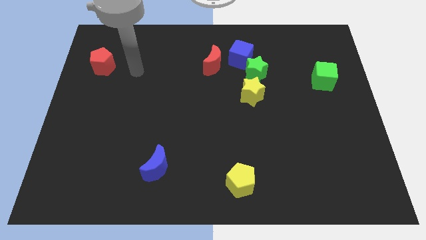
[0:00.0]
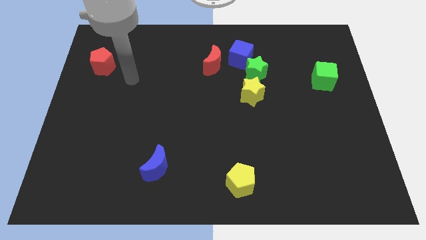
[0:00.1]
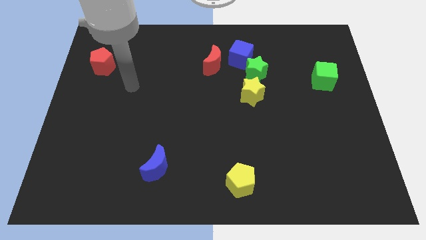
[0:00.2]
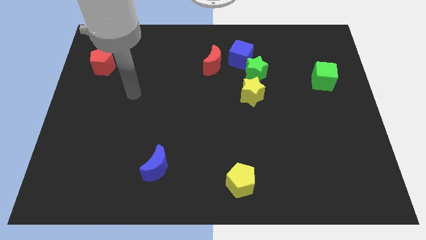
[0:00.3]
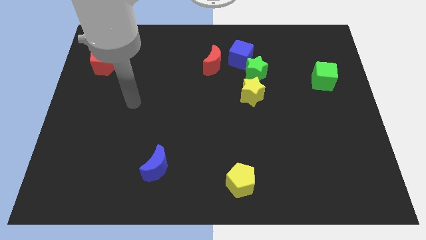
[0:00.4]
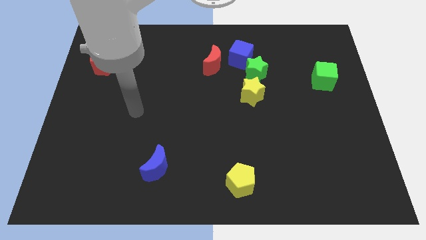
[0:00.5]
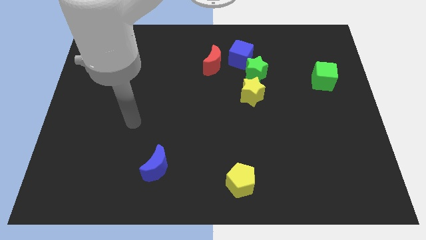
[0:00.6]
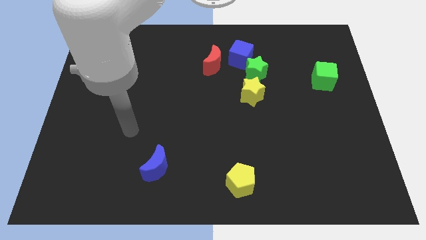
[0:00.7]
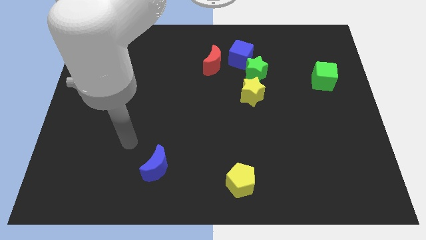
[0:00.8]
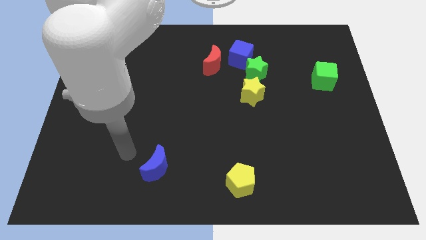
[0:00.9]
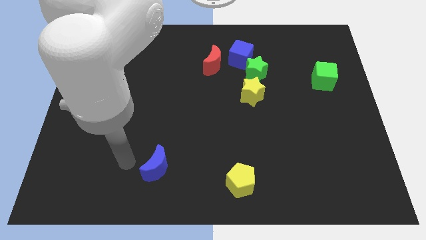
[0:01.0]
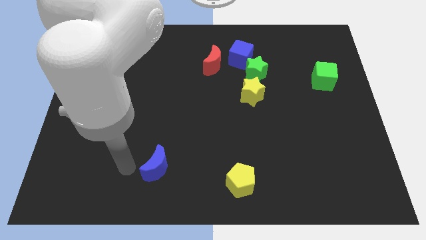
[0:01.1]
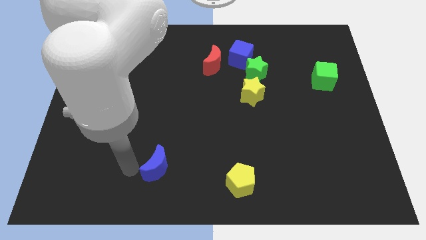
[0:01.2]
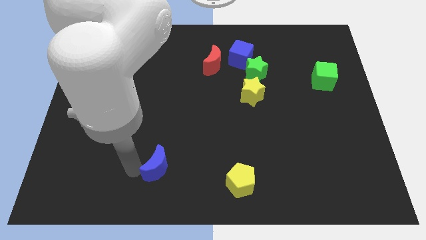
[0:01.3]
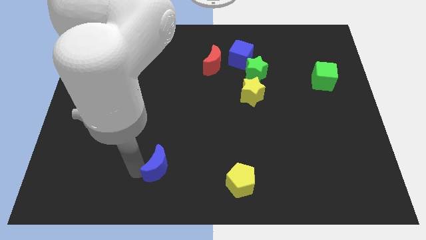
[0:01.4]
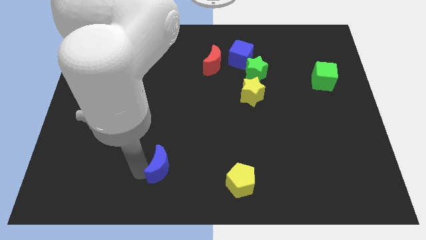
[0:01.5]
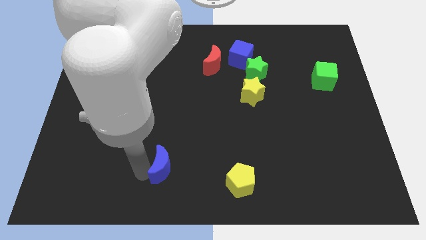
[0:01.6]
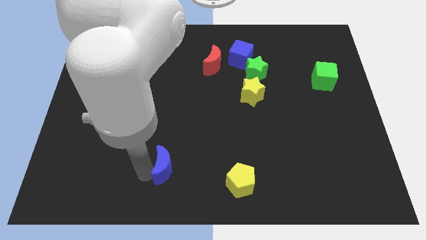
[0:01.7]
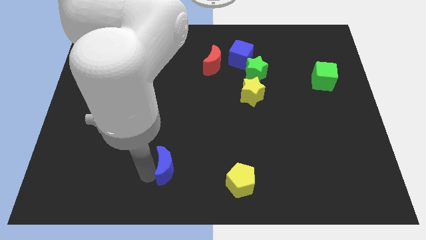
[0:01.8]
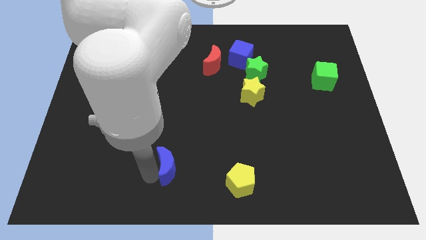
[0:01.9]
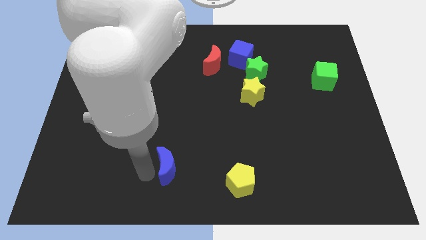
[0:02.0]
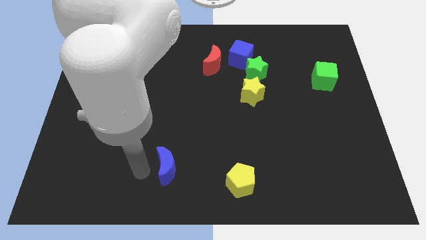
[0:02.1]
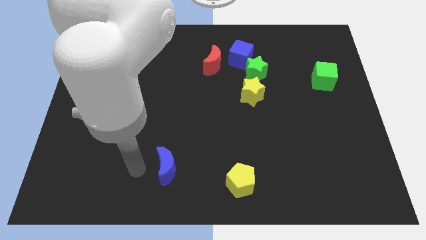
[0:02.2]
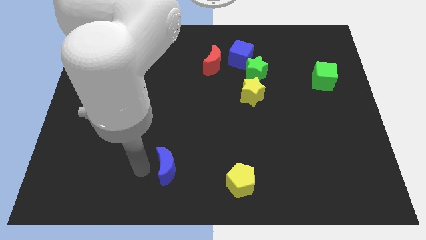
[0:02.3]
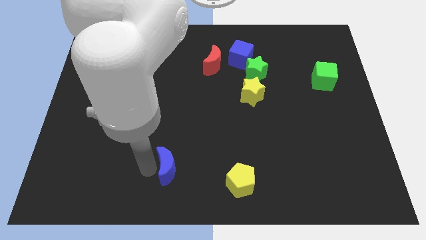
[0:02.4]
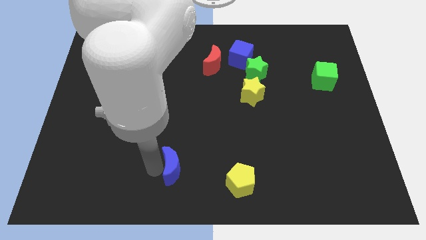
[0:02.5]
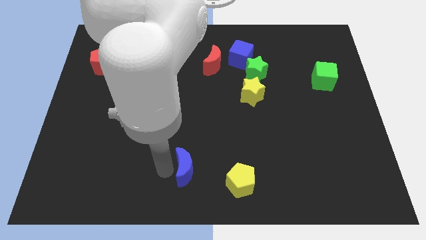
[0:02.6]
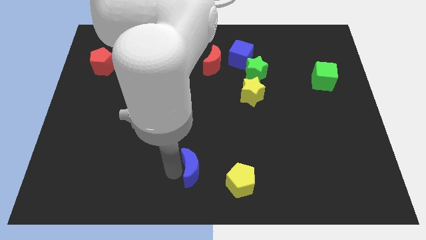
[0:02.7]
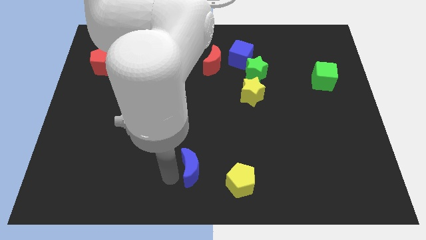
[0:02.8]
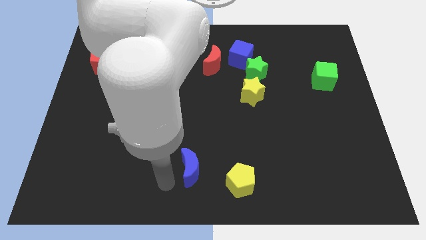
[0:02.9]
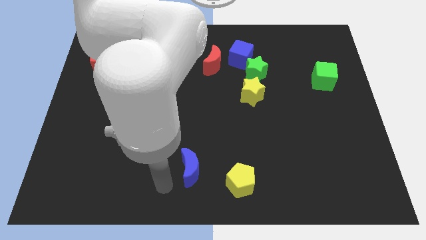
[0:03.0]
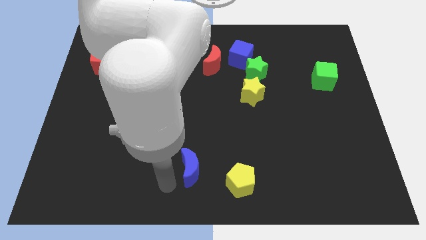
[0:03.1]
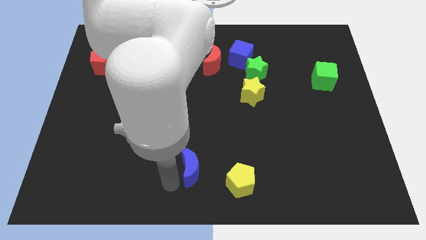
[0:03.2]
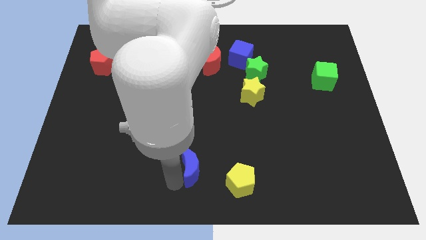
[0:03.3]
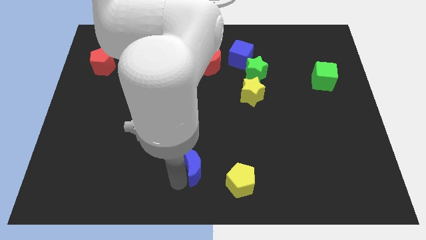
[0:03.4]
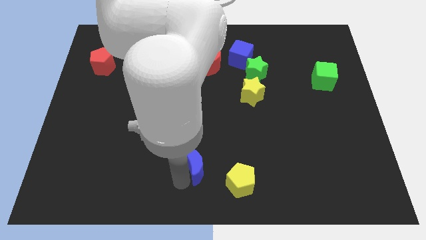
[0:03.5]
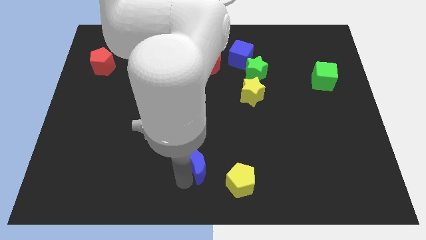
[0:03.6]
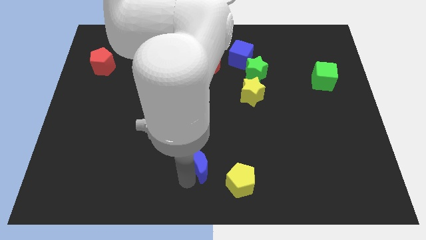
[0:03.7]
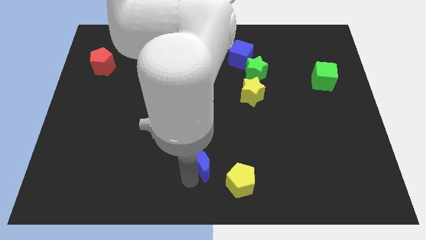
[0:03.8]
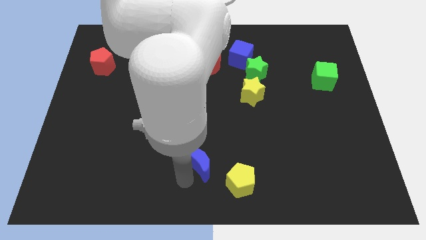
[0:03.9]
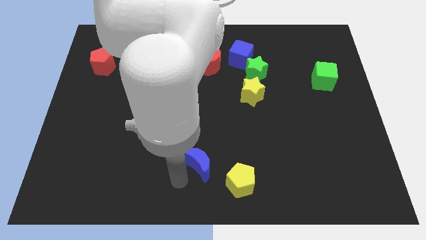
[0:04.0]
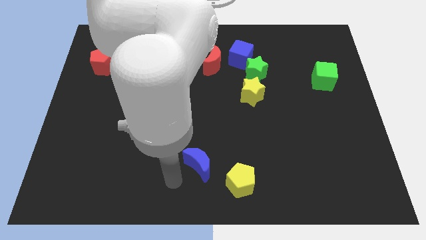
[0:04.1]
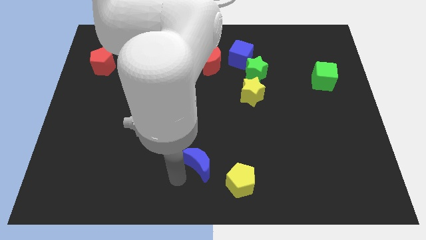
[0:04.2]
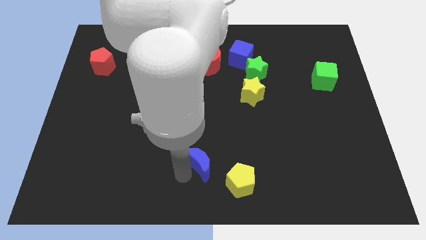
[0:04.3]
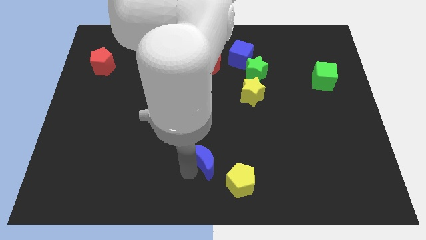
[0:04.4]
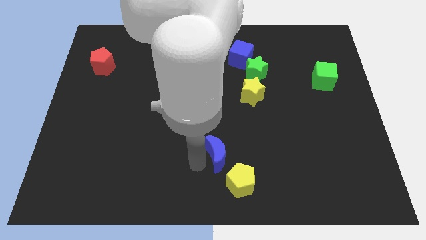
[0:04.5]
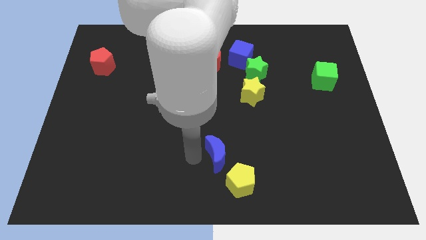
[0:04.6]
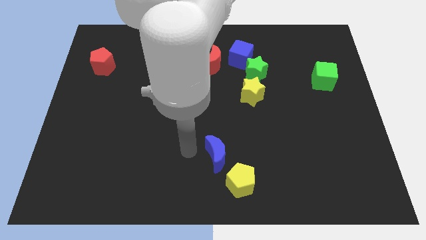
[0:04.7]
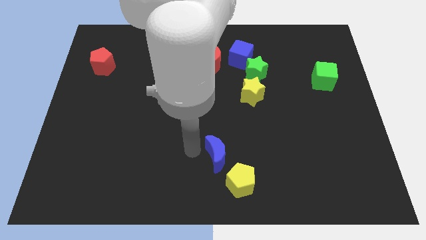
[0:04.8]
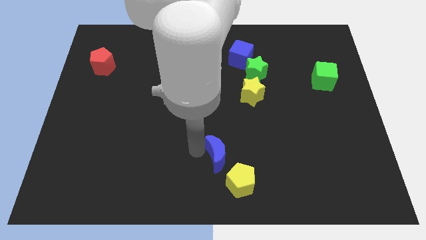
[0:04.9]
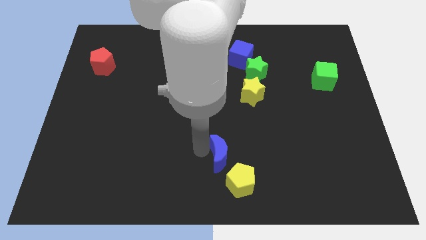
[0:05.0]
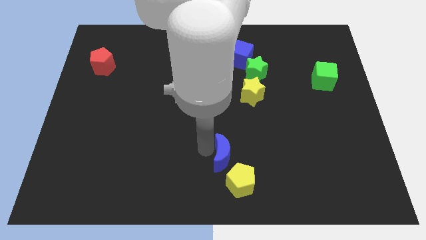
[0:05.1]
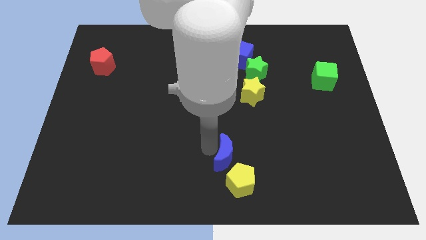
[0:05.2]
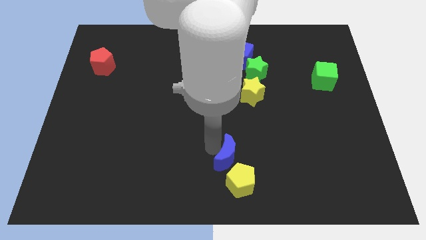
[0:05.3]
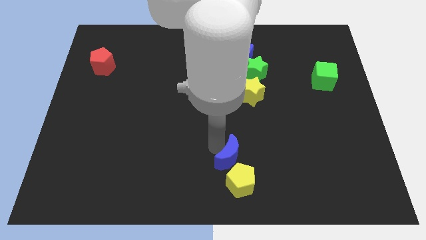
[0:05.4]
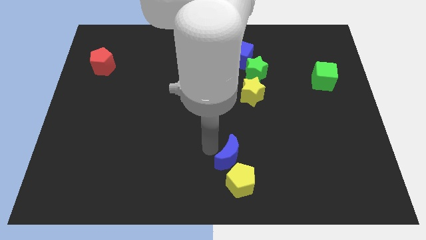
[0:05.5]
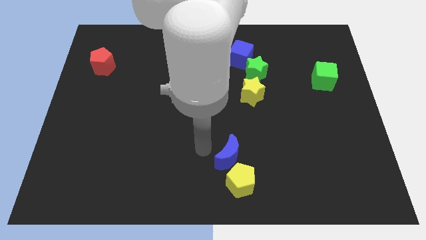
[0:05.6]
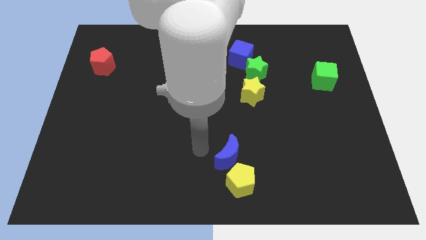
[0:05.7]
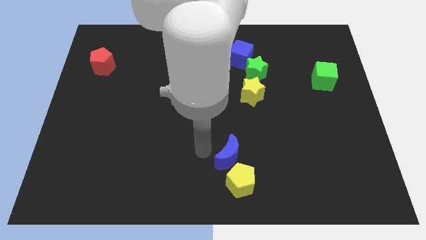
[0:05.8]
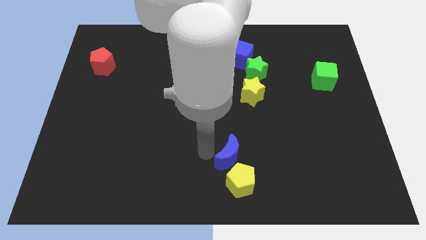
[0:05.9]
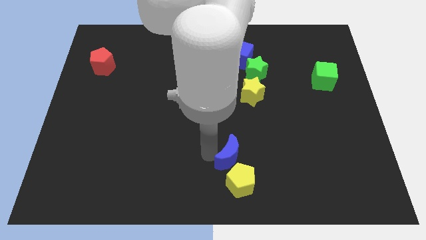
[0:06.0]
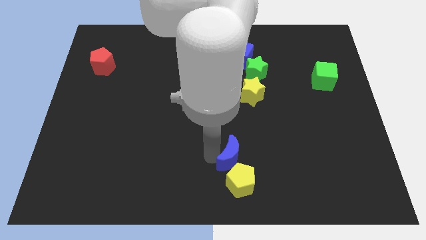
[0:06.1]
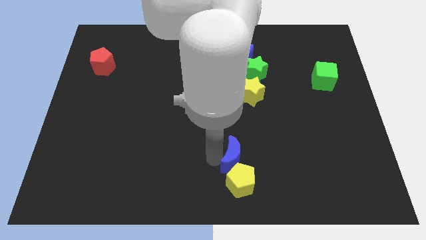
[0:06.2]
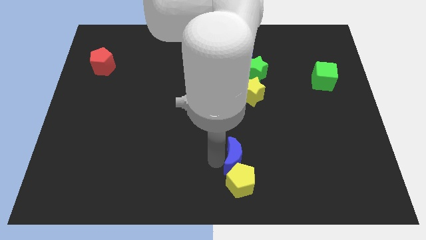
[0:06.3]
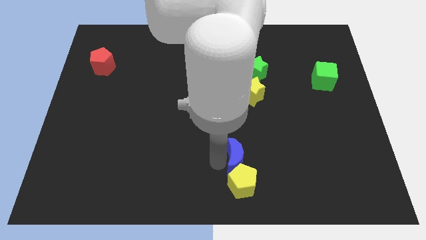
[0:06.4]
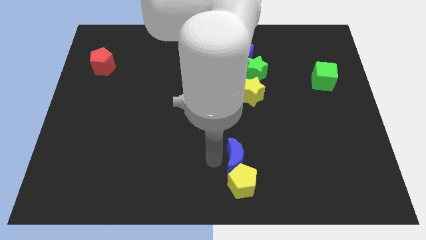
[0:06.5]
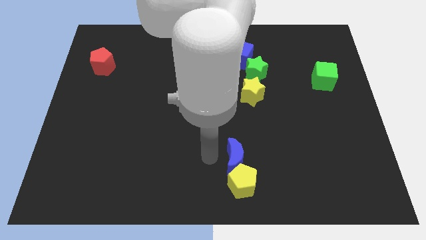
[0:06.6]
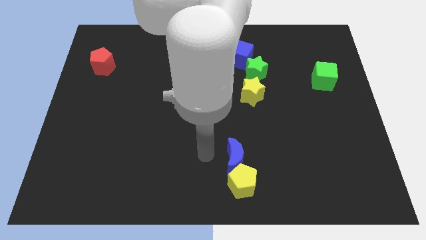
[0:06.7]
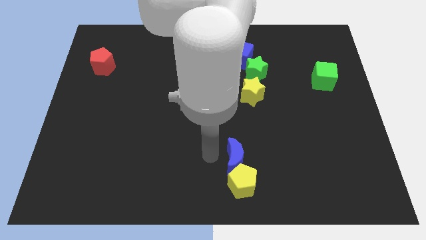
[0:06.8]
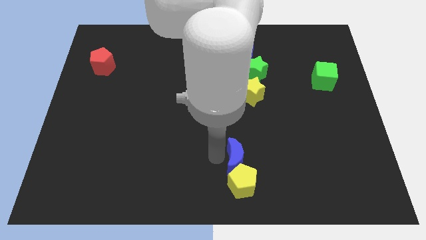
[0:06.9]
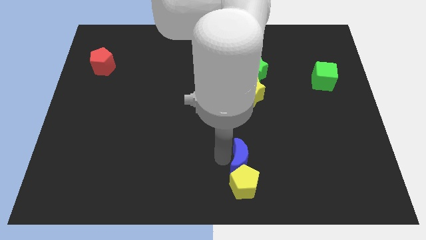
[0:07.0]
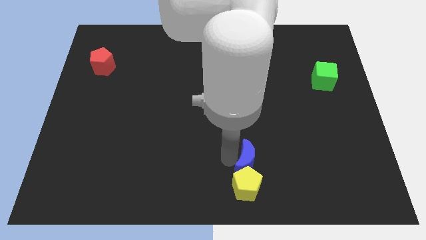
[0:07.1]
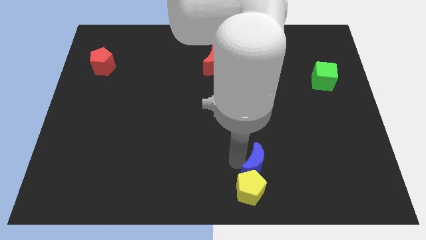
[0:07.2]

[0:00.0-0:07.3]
move the blue moon to the right

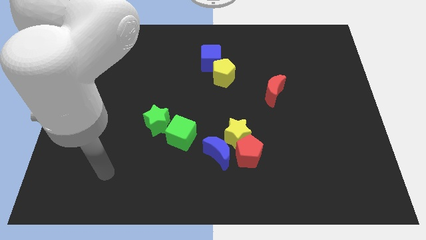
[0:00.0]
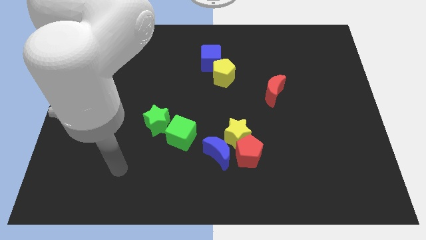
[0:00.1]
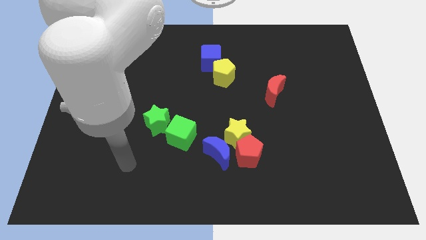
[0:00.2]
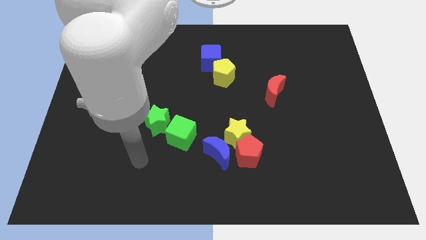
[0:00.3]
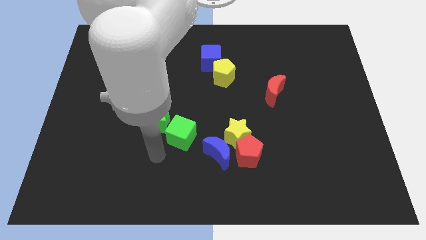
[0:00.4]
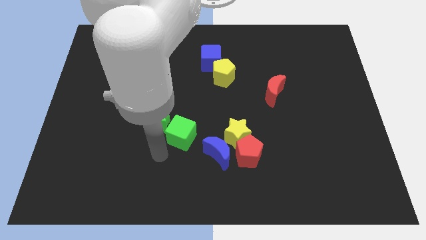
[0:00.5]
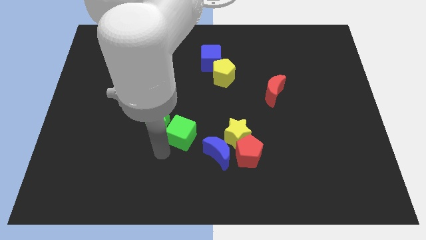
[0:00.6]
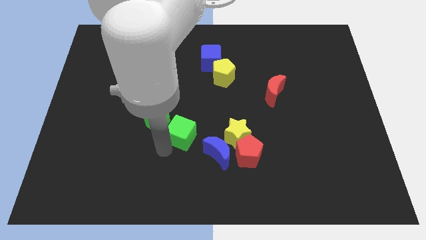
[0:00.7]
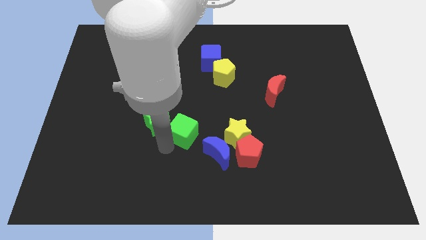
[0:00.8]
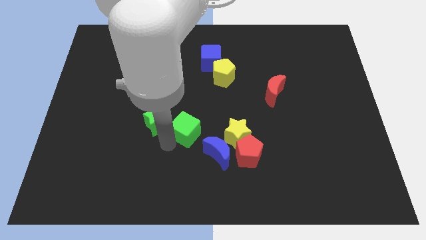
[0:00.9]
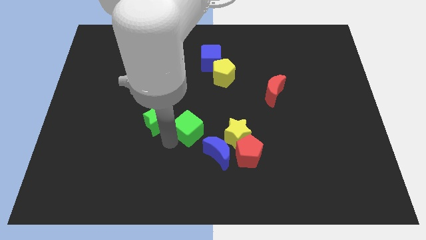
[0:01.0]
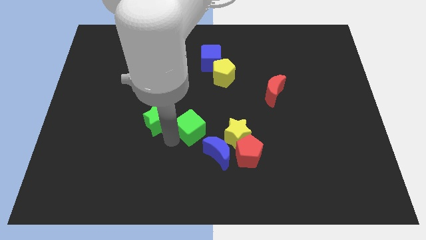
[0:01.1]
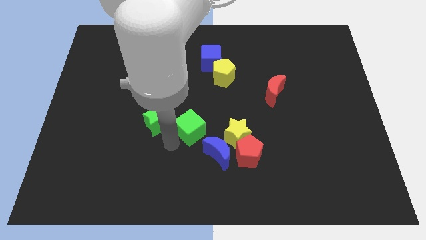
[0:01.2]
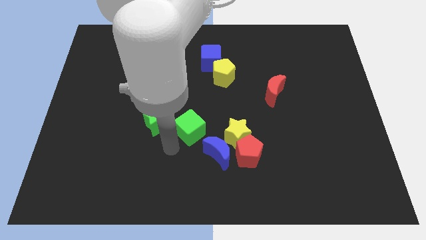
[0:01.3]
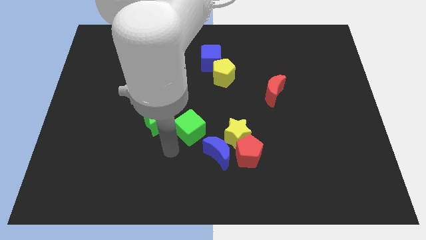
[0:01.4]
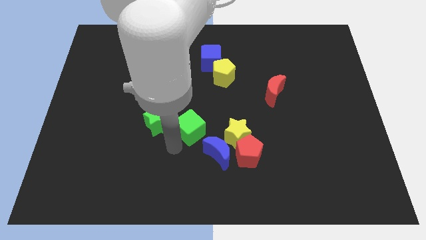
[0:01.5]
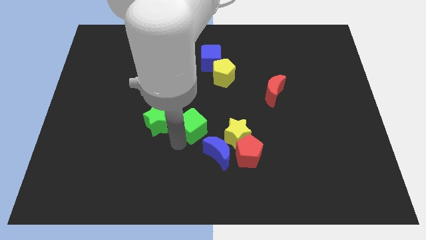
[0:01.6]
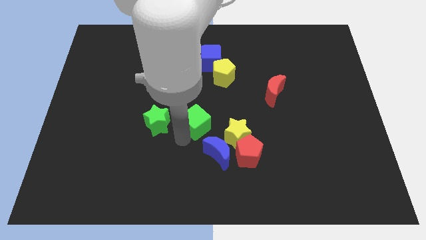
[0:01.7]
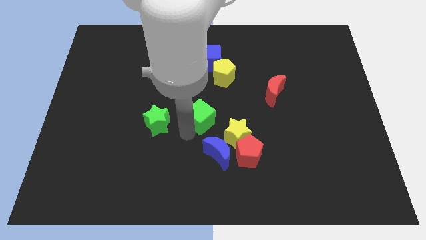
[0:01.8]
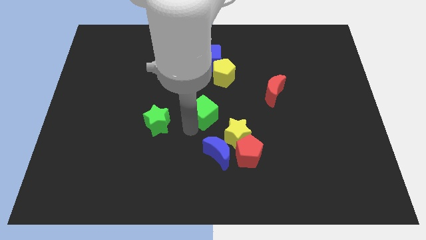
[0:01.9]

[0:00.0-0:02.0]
slide the green cube slightly upwards and then right
